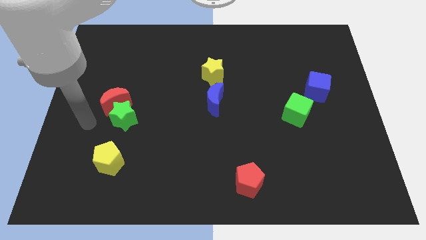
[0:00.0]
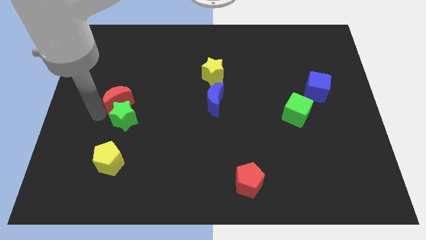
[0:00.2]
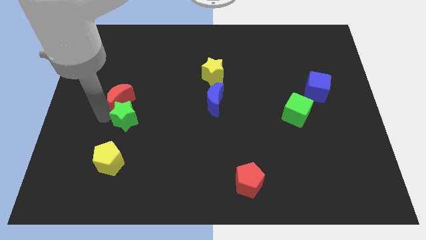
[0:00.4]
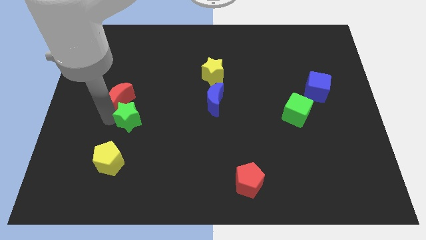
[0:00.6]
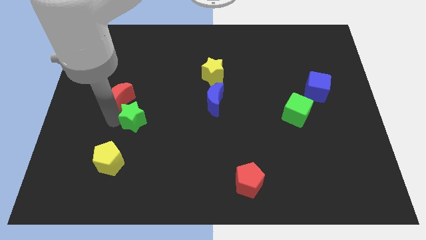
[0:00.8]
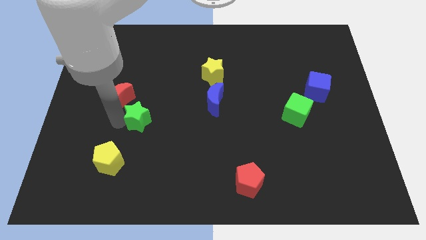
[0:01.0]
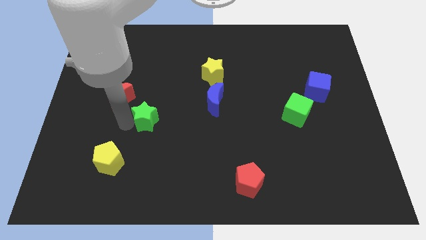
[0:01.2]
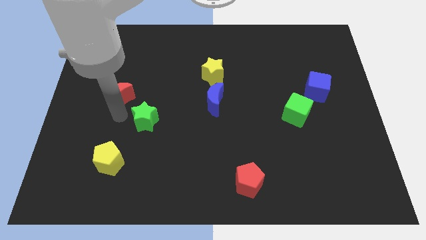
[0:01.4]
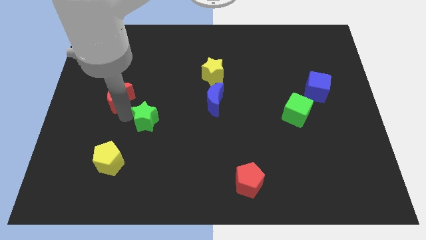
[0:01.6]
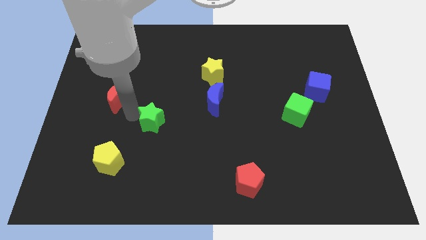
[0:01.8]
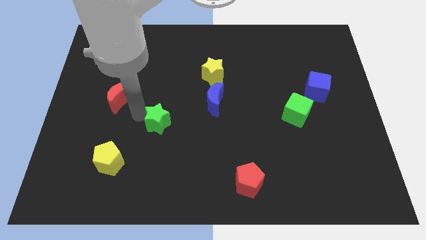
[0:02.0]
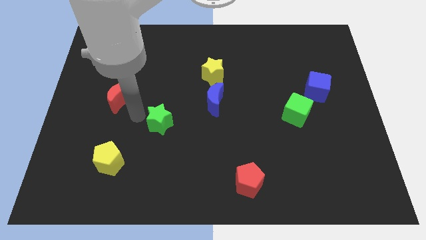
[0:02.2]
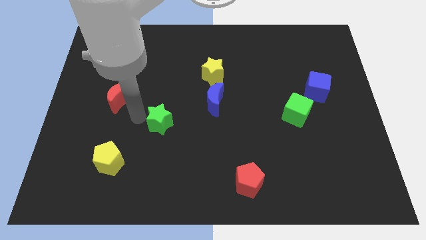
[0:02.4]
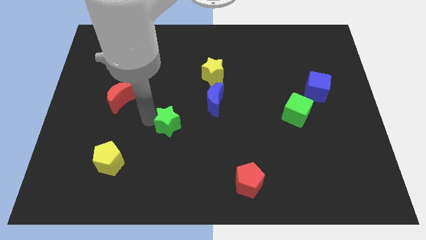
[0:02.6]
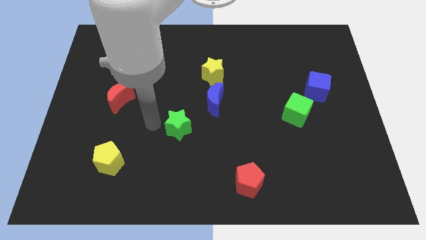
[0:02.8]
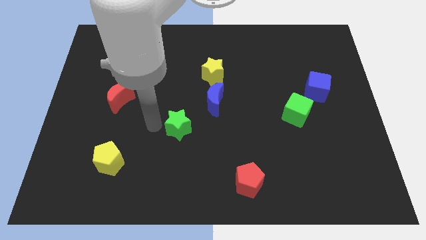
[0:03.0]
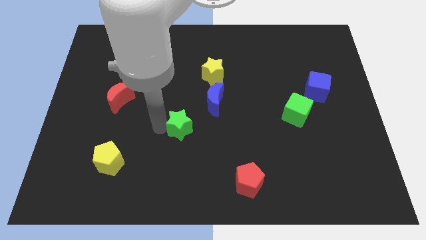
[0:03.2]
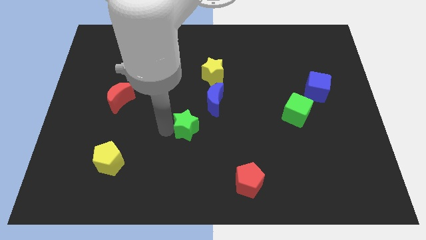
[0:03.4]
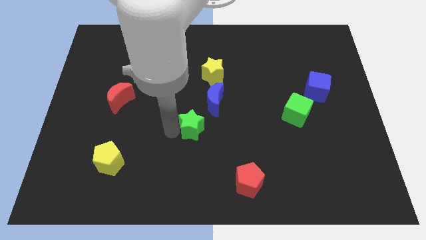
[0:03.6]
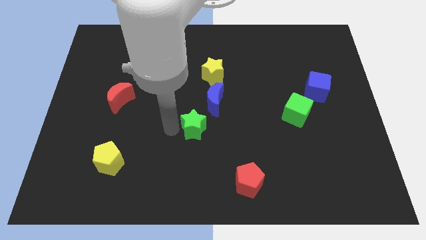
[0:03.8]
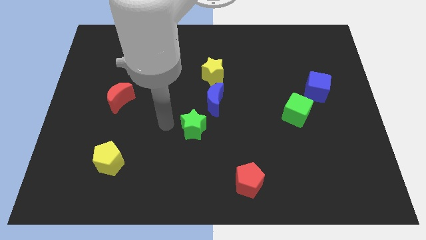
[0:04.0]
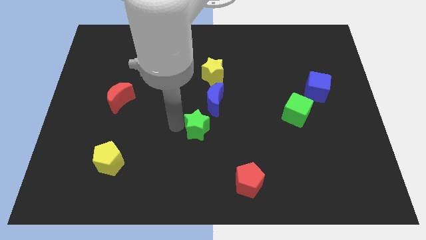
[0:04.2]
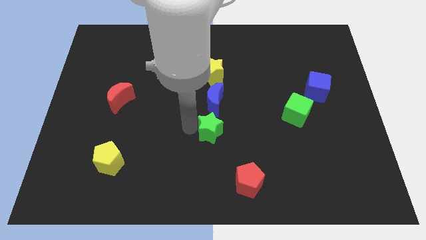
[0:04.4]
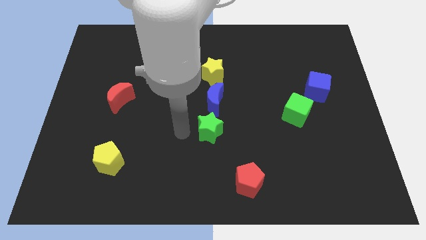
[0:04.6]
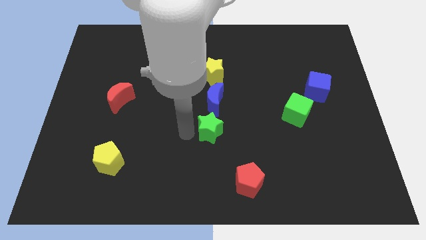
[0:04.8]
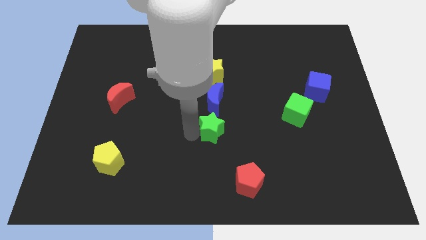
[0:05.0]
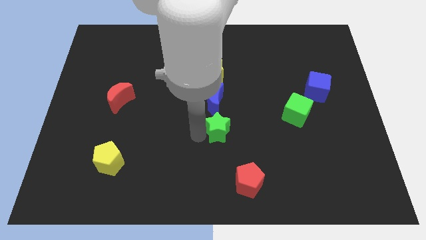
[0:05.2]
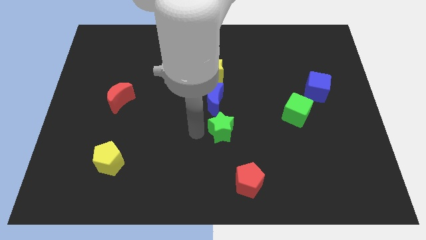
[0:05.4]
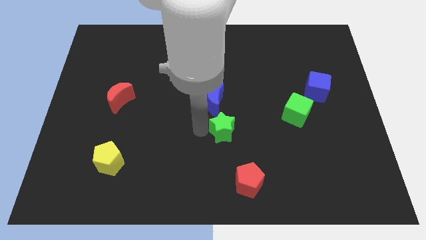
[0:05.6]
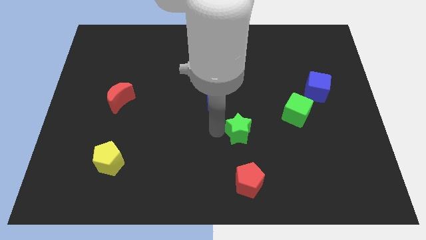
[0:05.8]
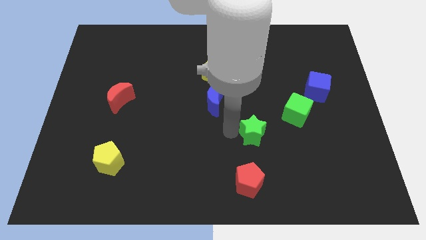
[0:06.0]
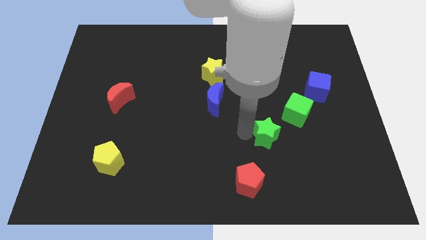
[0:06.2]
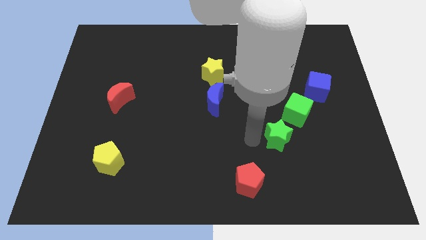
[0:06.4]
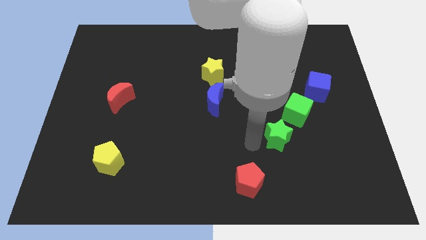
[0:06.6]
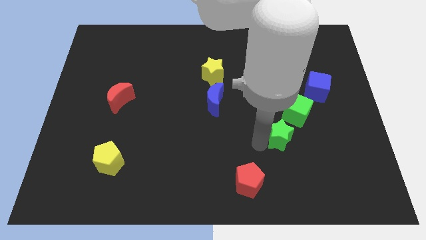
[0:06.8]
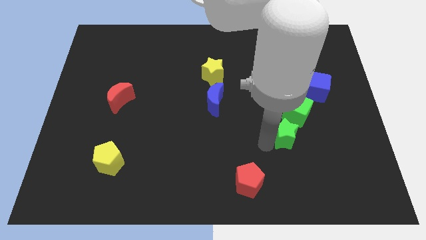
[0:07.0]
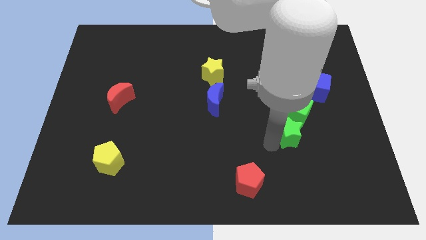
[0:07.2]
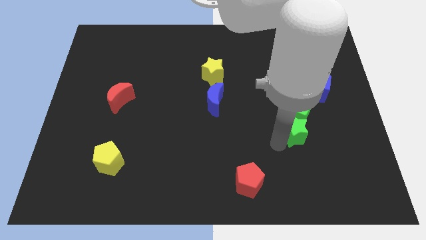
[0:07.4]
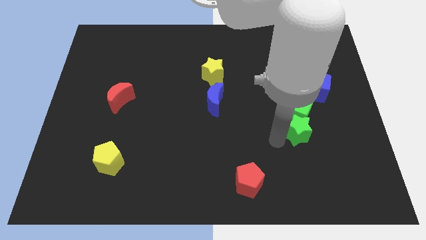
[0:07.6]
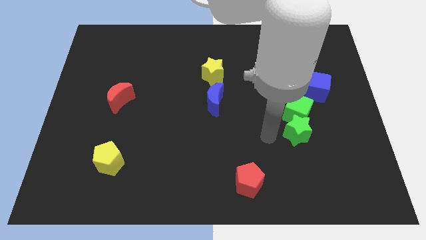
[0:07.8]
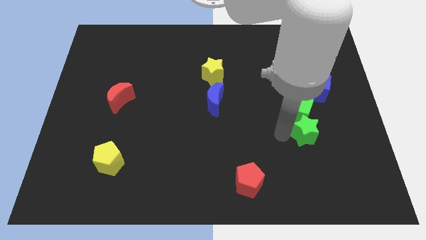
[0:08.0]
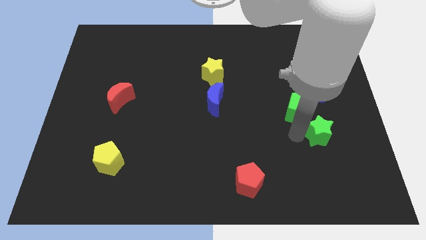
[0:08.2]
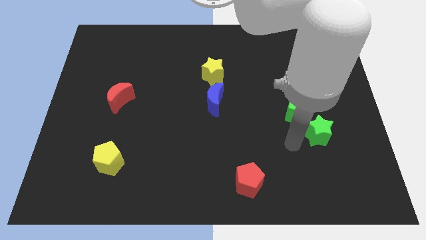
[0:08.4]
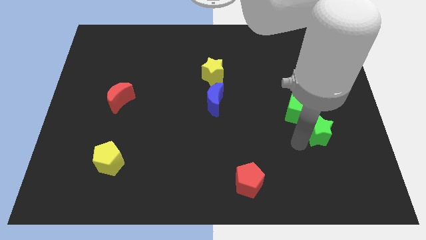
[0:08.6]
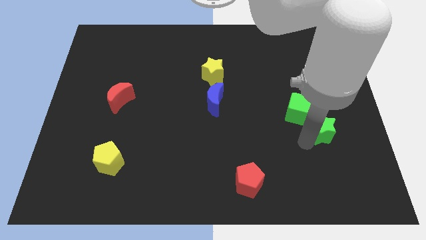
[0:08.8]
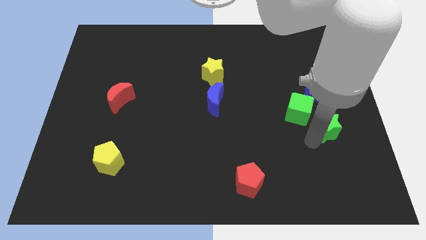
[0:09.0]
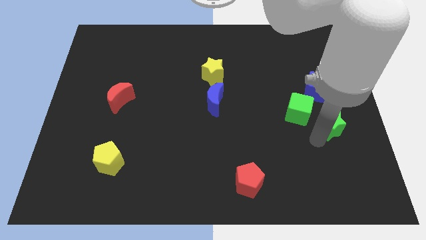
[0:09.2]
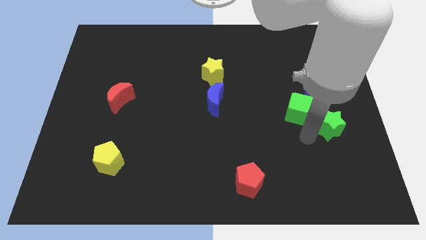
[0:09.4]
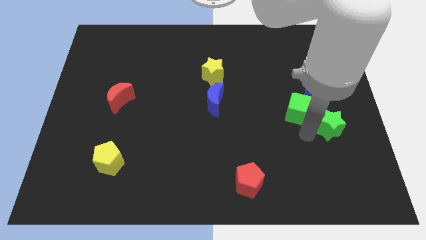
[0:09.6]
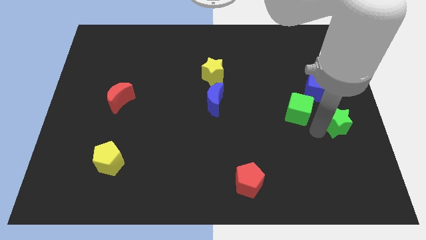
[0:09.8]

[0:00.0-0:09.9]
slide the green star to the right side of the board

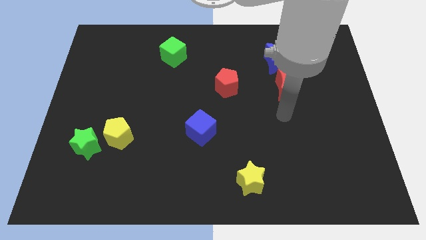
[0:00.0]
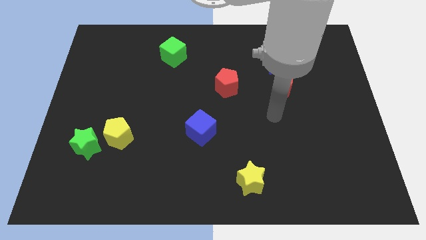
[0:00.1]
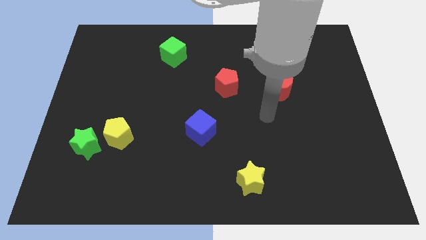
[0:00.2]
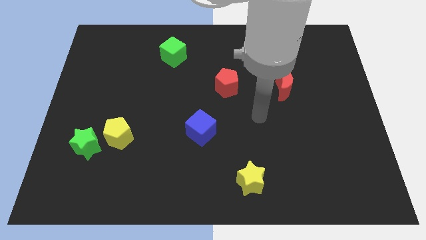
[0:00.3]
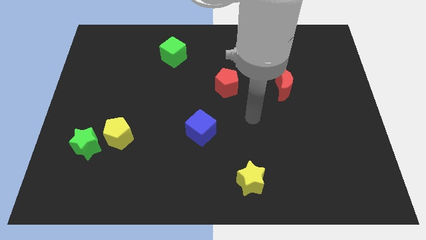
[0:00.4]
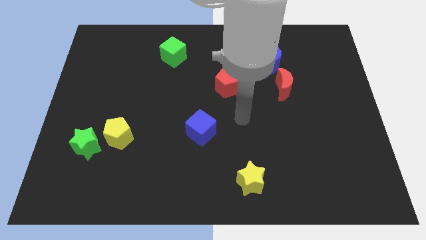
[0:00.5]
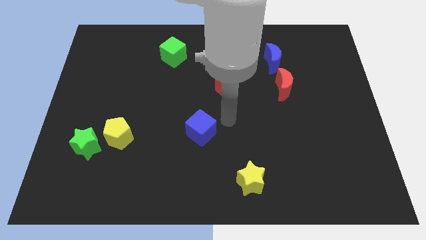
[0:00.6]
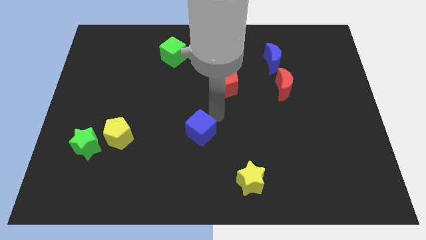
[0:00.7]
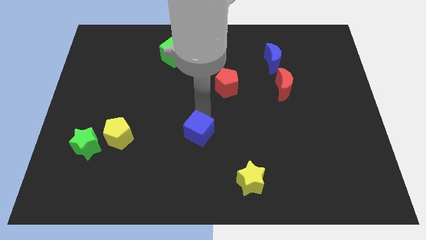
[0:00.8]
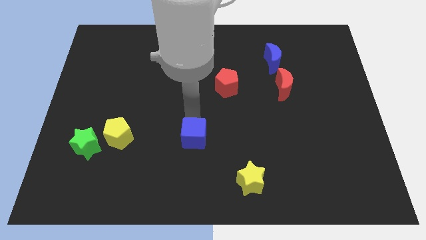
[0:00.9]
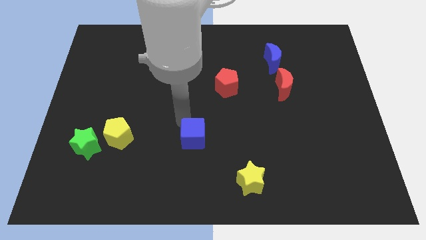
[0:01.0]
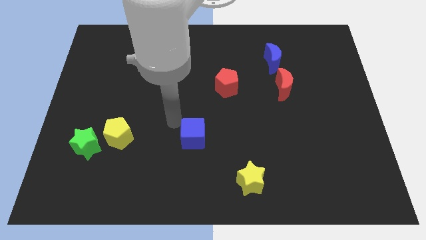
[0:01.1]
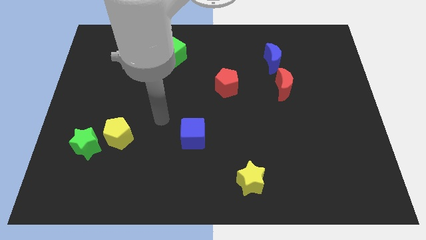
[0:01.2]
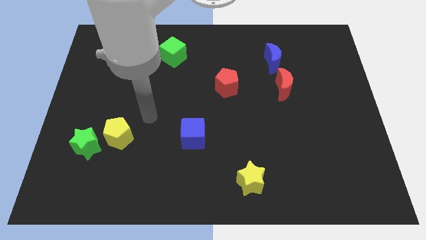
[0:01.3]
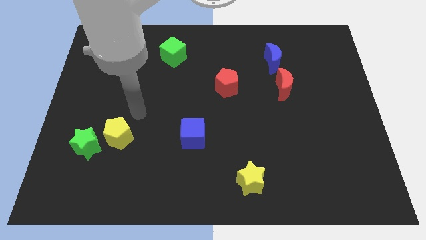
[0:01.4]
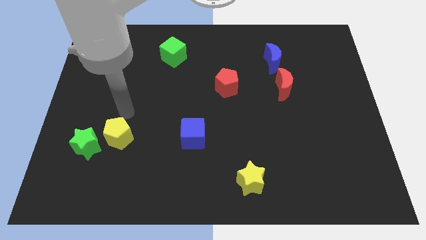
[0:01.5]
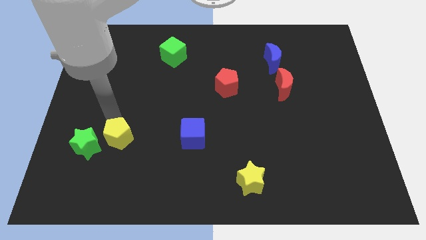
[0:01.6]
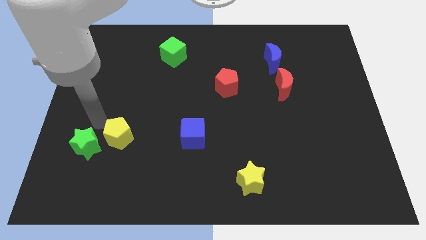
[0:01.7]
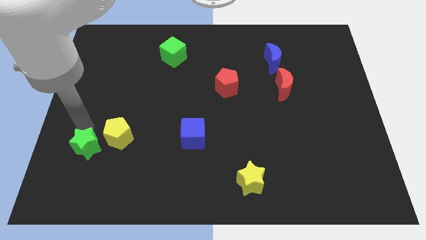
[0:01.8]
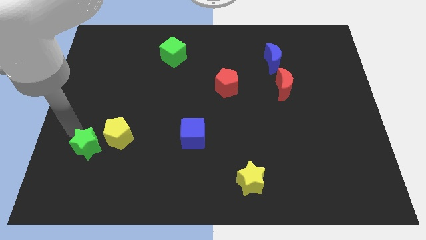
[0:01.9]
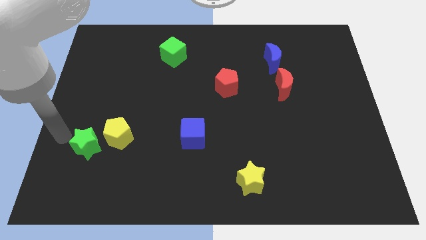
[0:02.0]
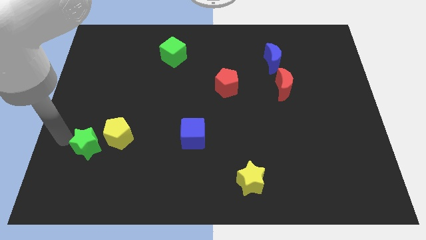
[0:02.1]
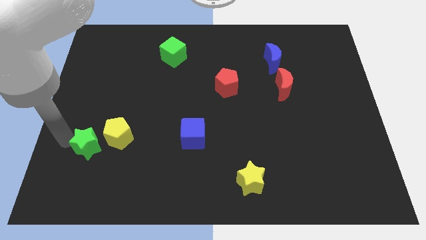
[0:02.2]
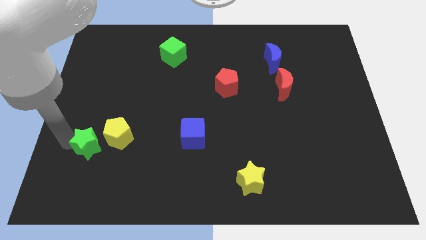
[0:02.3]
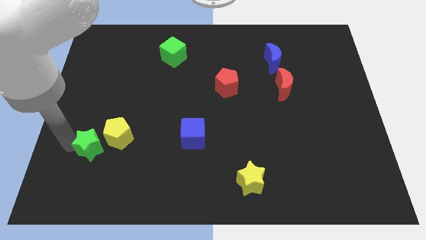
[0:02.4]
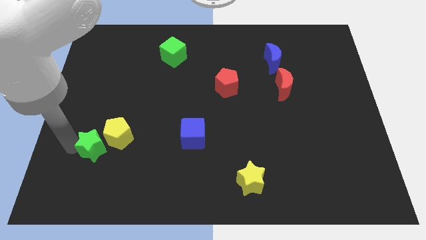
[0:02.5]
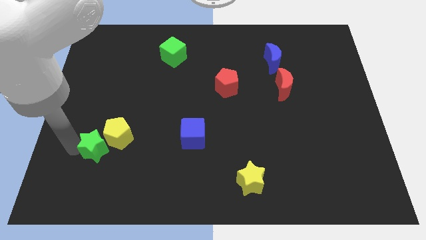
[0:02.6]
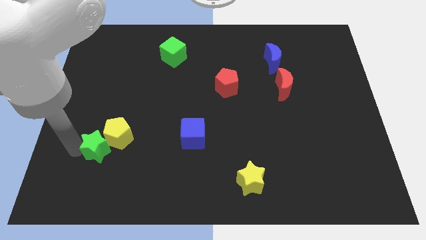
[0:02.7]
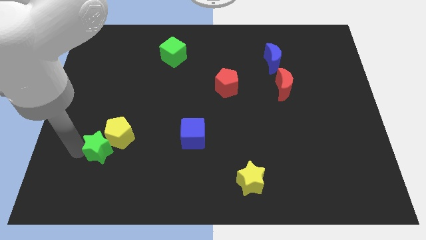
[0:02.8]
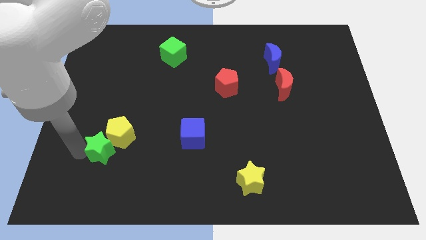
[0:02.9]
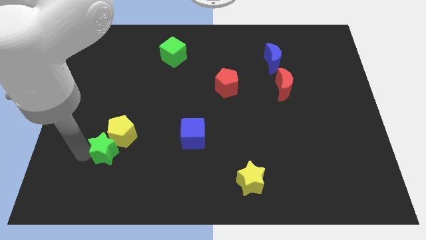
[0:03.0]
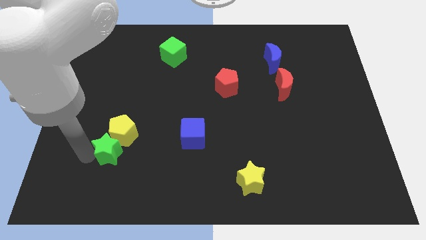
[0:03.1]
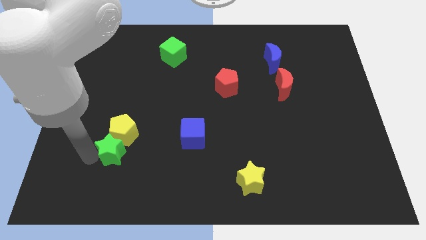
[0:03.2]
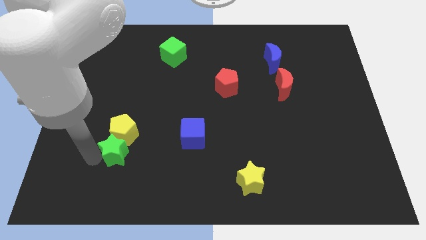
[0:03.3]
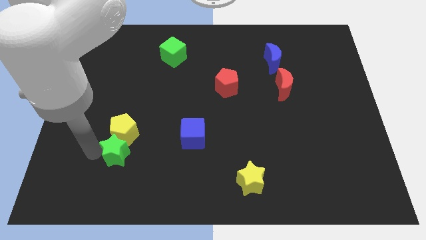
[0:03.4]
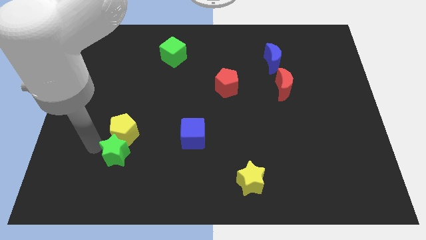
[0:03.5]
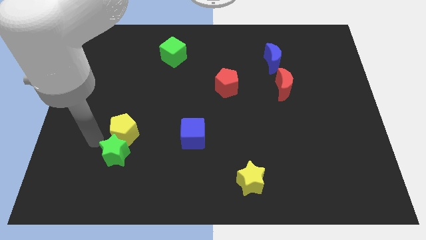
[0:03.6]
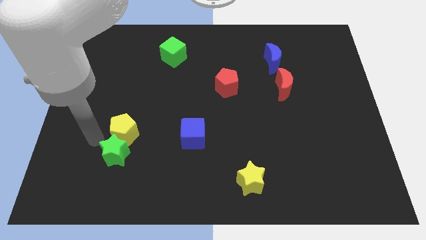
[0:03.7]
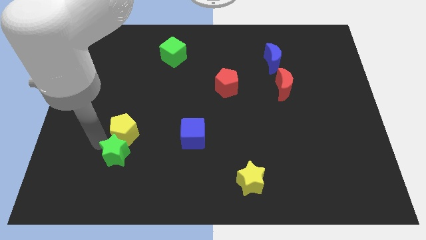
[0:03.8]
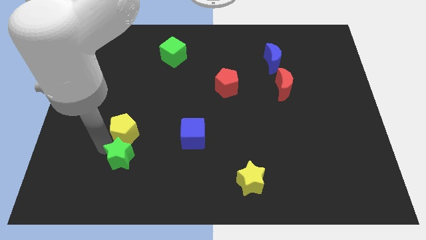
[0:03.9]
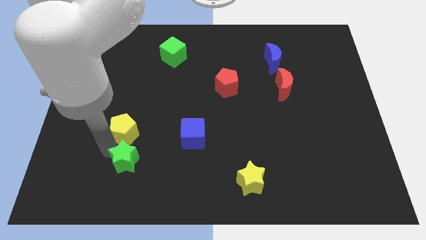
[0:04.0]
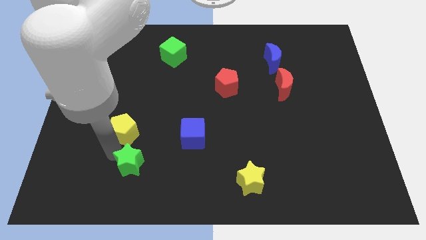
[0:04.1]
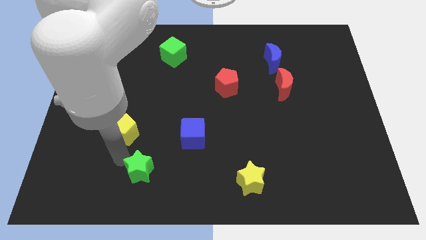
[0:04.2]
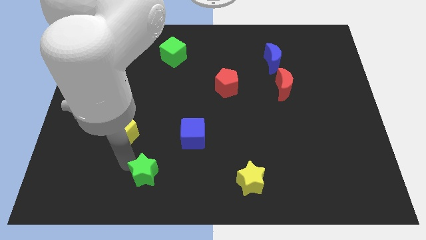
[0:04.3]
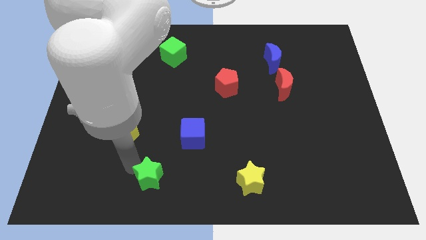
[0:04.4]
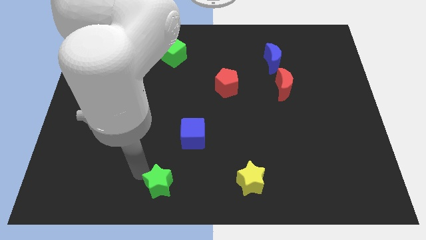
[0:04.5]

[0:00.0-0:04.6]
slide the green star to the bottom
